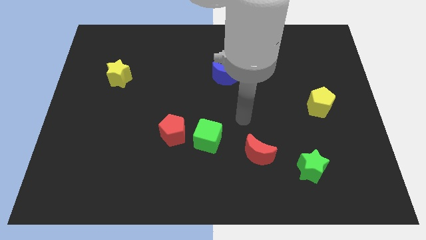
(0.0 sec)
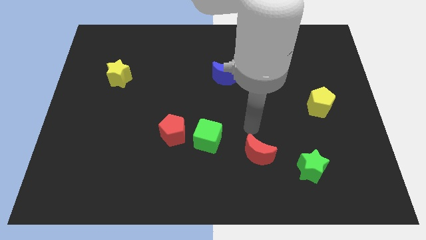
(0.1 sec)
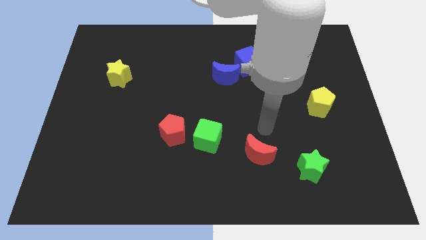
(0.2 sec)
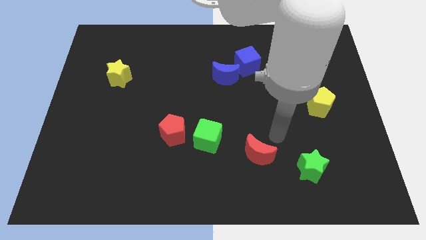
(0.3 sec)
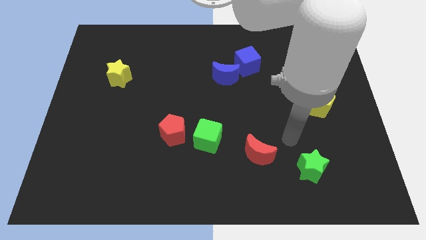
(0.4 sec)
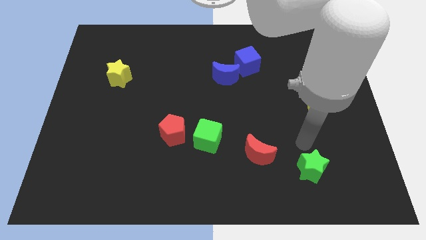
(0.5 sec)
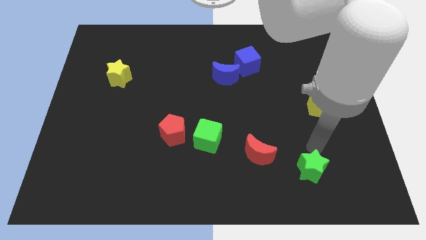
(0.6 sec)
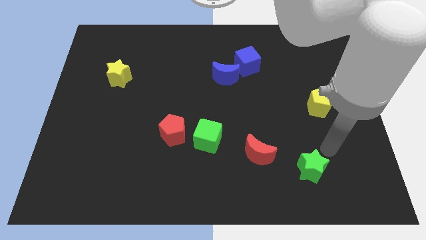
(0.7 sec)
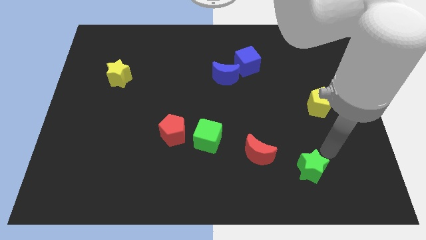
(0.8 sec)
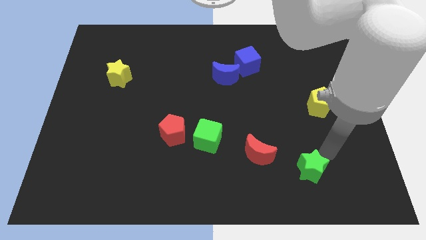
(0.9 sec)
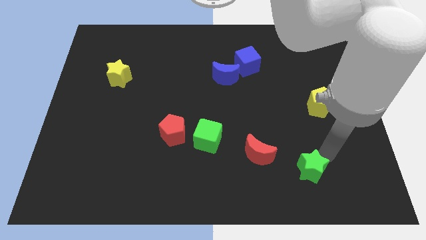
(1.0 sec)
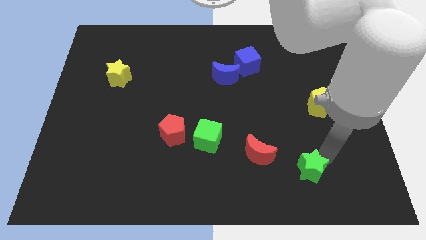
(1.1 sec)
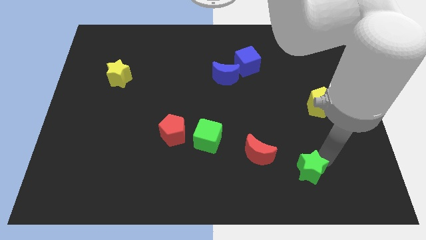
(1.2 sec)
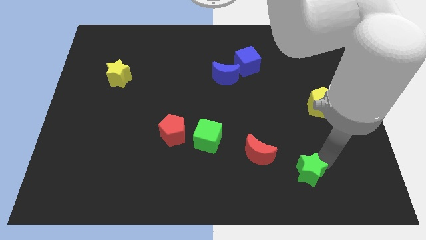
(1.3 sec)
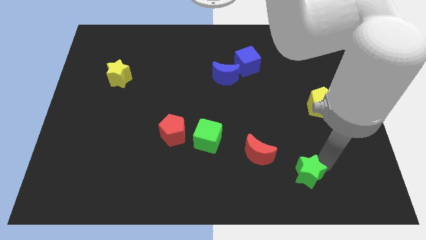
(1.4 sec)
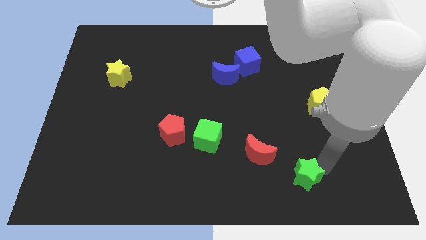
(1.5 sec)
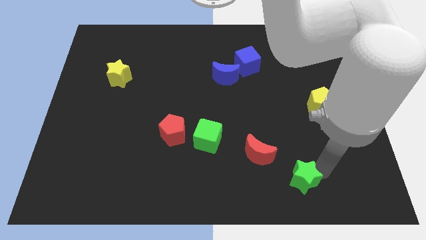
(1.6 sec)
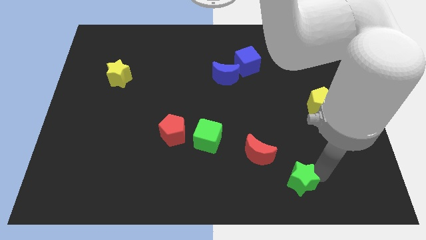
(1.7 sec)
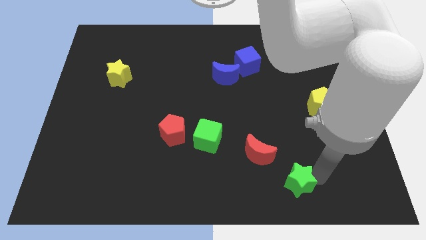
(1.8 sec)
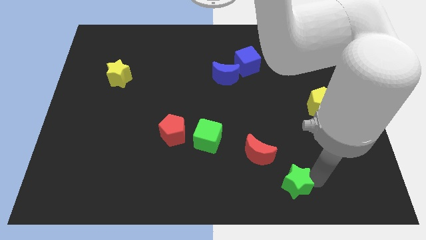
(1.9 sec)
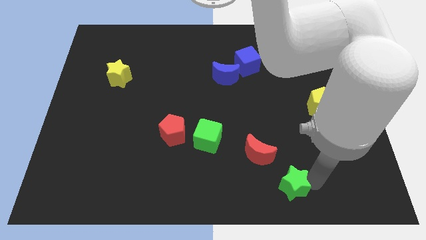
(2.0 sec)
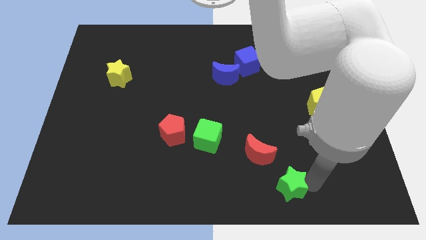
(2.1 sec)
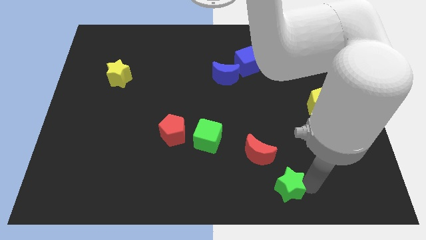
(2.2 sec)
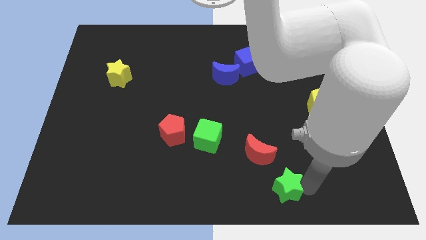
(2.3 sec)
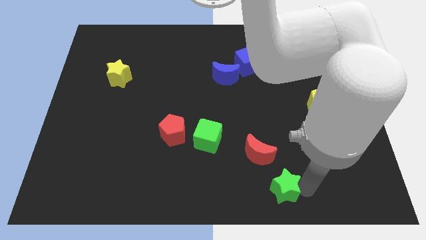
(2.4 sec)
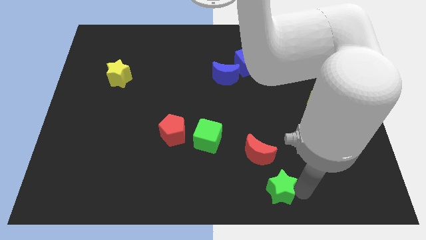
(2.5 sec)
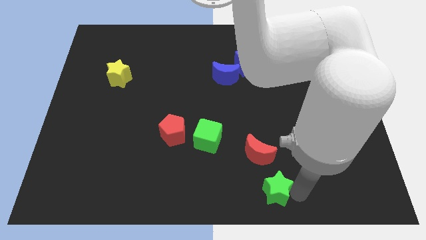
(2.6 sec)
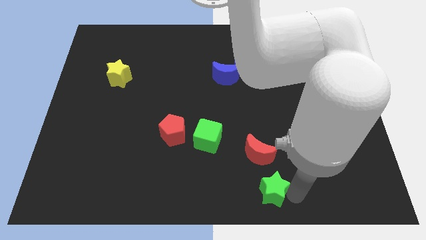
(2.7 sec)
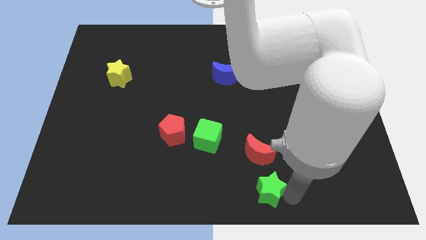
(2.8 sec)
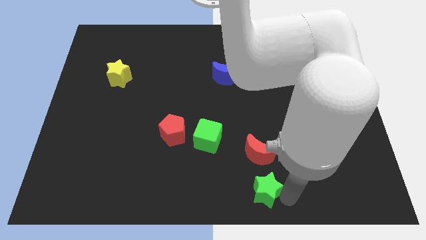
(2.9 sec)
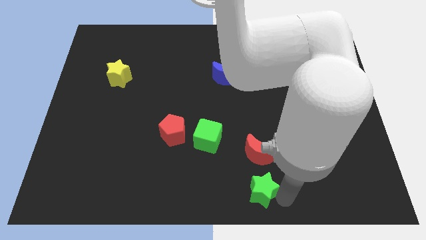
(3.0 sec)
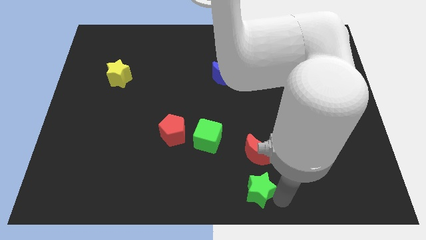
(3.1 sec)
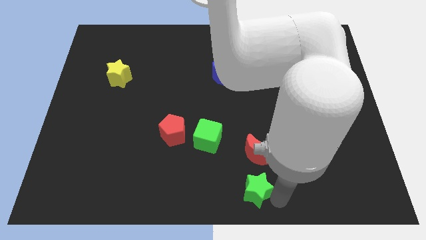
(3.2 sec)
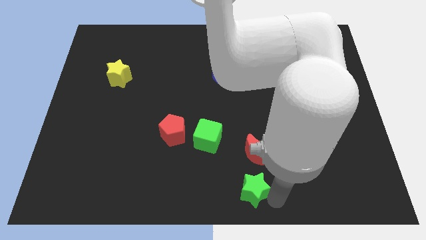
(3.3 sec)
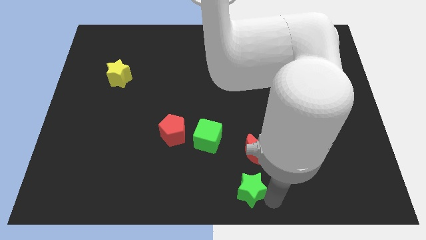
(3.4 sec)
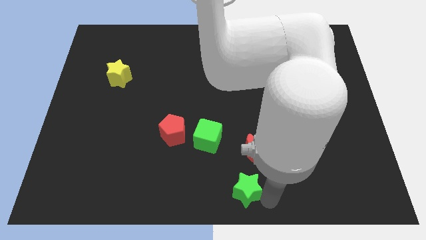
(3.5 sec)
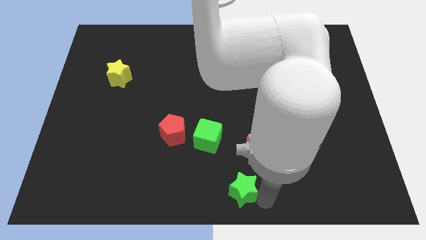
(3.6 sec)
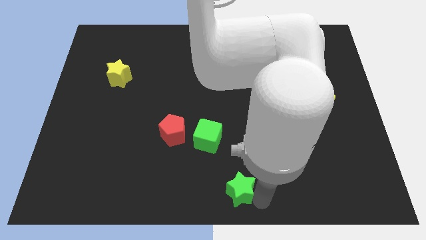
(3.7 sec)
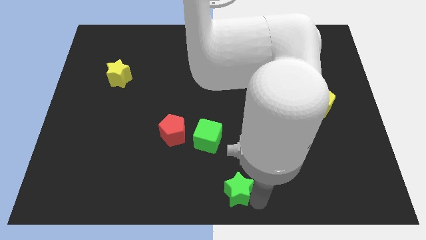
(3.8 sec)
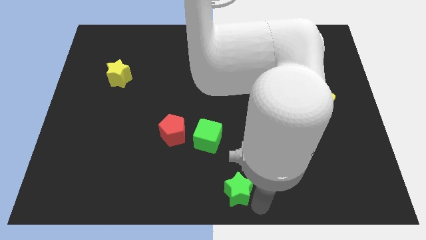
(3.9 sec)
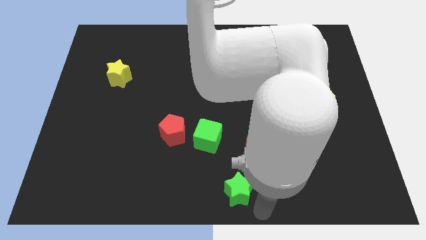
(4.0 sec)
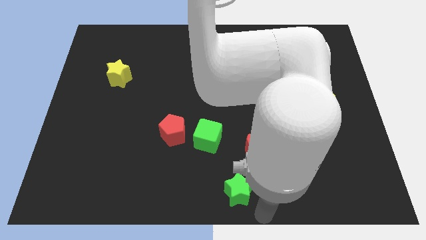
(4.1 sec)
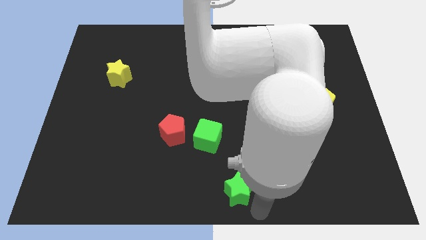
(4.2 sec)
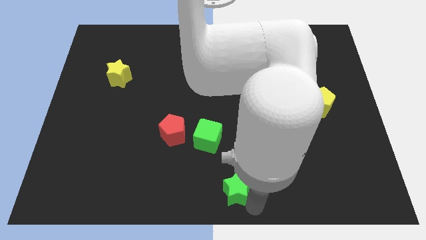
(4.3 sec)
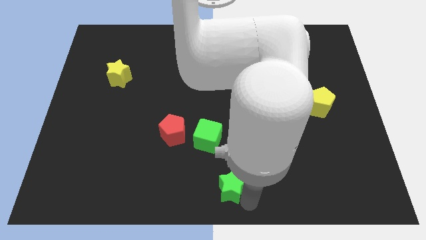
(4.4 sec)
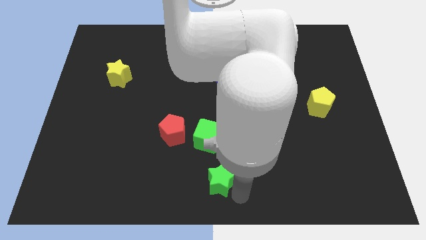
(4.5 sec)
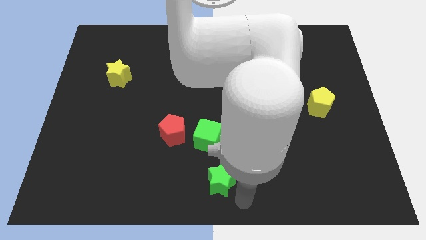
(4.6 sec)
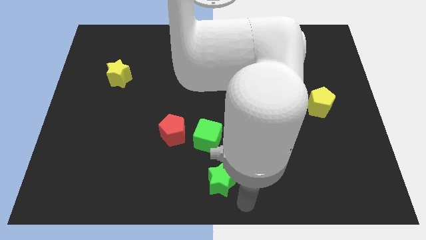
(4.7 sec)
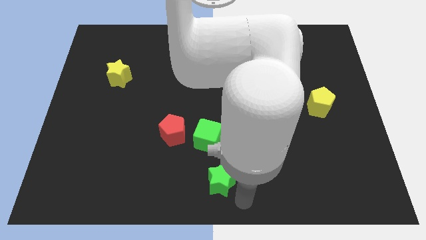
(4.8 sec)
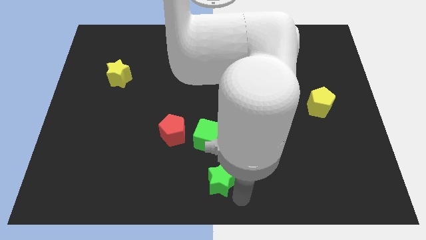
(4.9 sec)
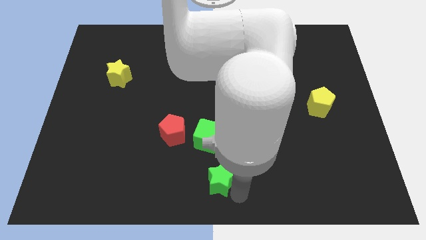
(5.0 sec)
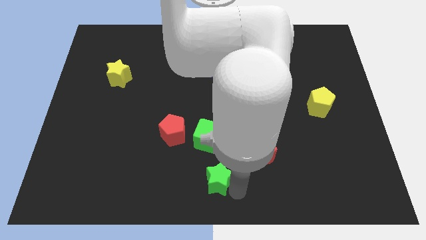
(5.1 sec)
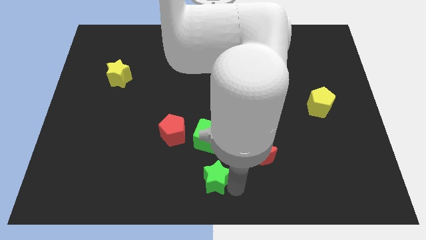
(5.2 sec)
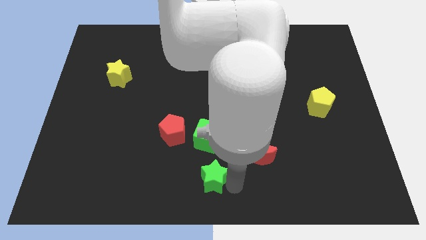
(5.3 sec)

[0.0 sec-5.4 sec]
push the green star to the left

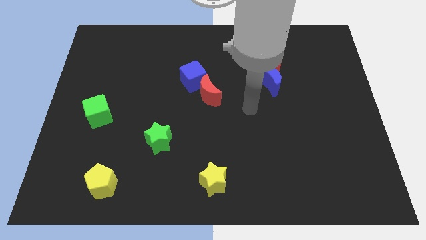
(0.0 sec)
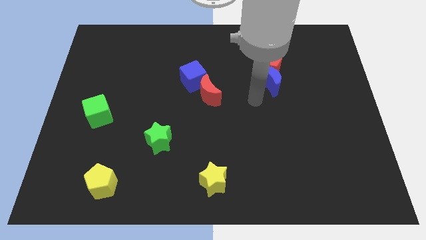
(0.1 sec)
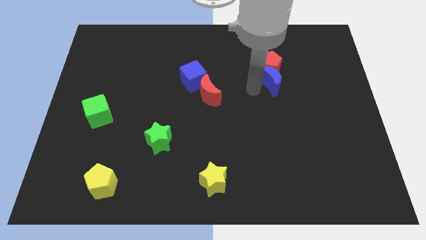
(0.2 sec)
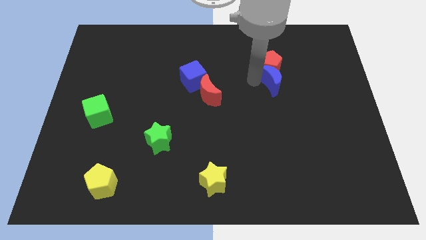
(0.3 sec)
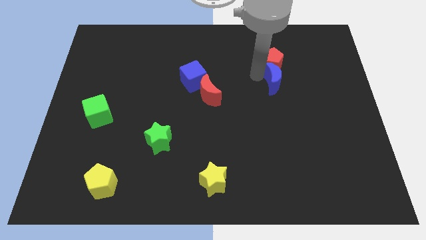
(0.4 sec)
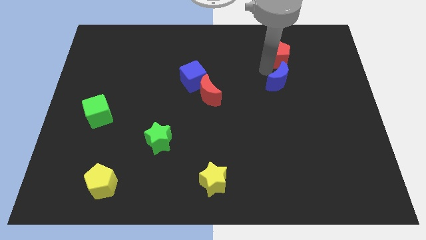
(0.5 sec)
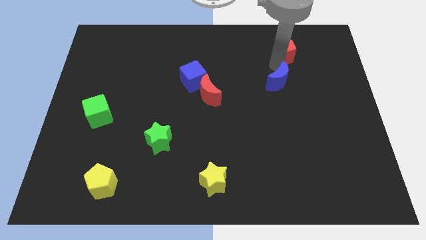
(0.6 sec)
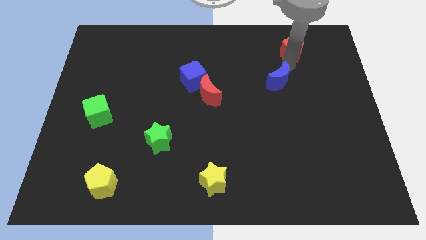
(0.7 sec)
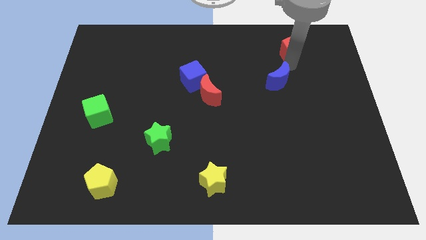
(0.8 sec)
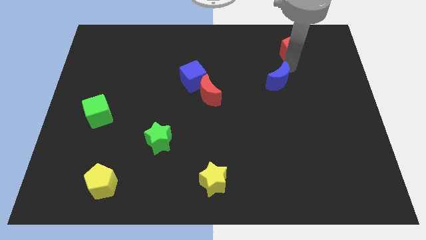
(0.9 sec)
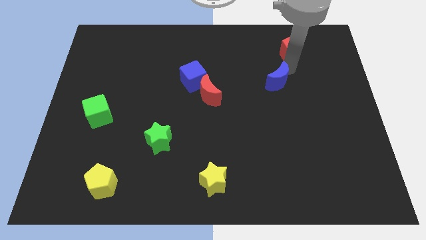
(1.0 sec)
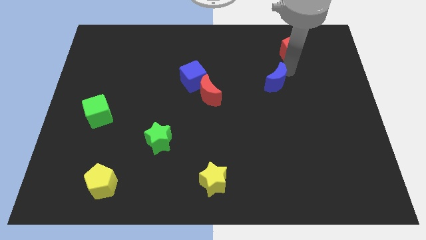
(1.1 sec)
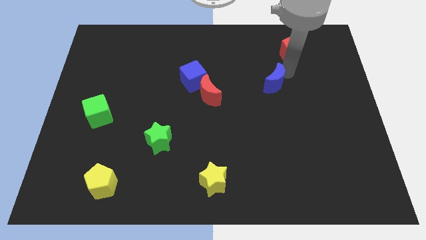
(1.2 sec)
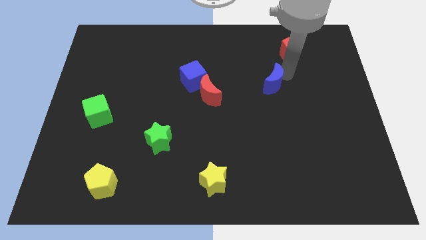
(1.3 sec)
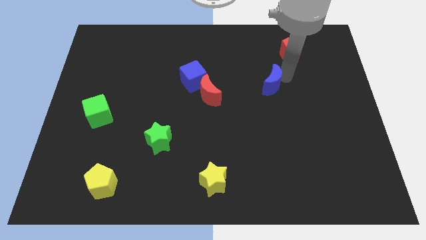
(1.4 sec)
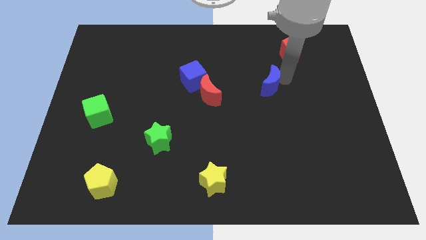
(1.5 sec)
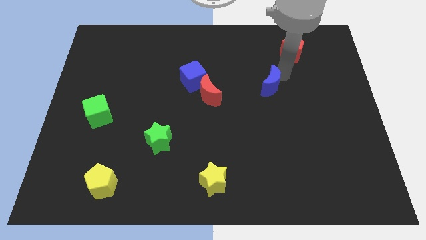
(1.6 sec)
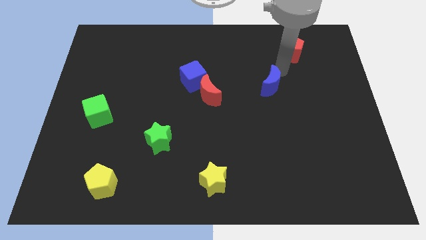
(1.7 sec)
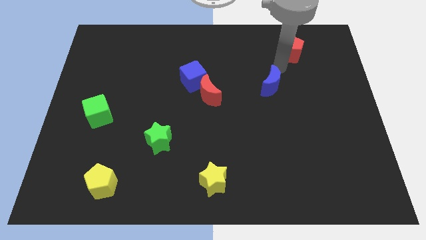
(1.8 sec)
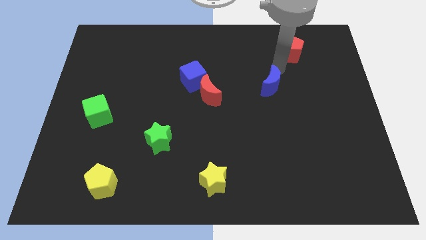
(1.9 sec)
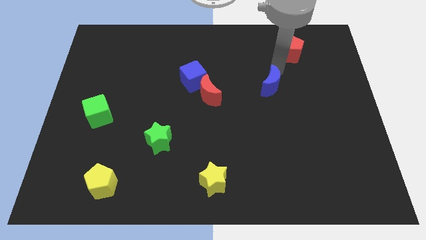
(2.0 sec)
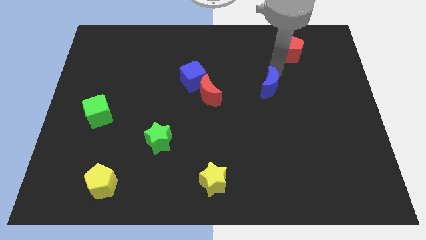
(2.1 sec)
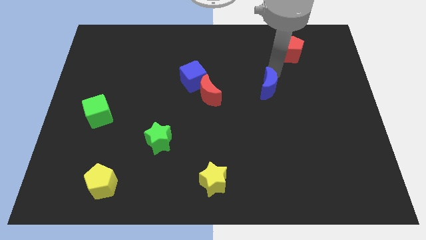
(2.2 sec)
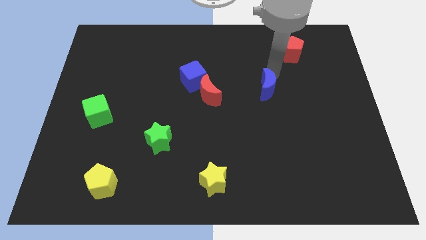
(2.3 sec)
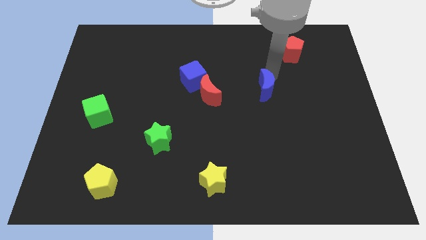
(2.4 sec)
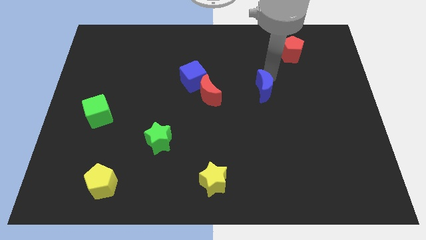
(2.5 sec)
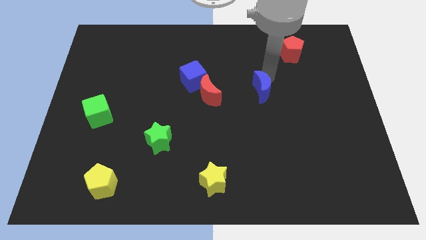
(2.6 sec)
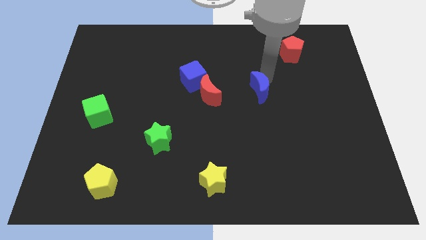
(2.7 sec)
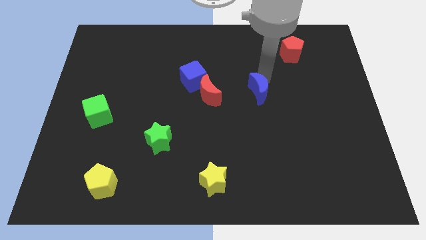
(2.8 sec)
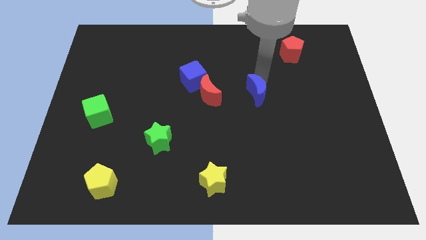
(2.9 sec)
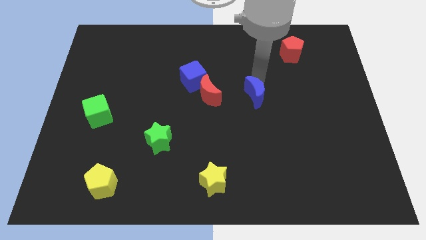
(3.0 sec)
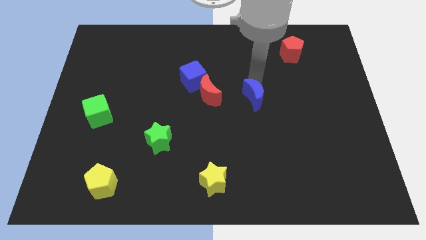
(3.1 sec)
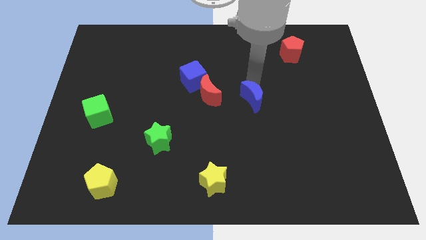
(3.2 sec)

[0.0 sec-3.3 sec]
push the blue moon downwards and to the left diagonally a little bit
